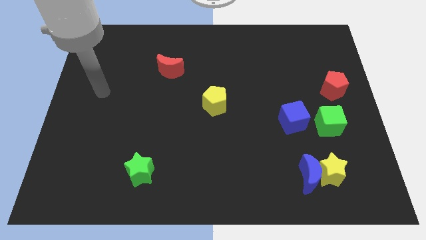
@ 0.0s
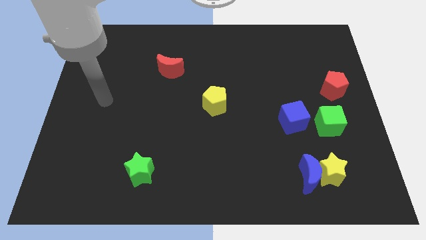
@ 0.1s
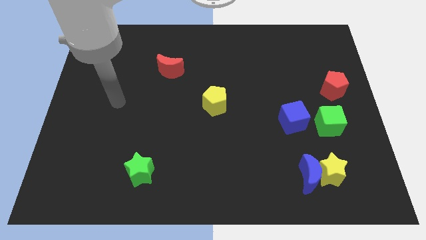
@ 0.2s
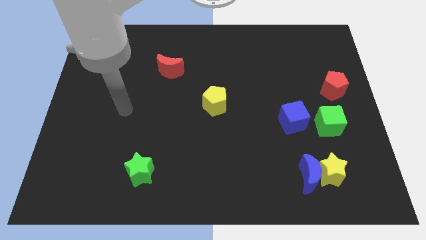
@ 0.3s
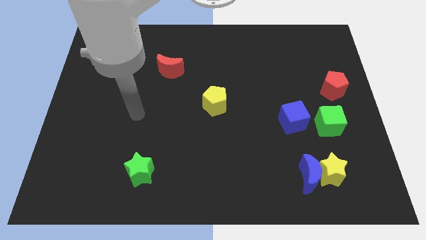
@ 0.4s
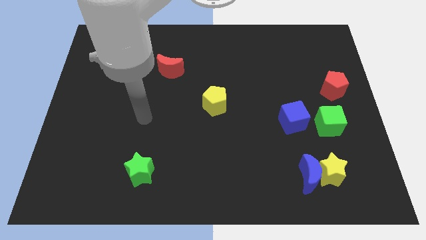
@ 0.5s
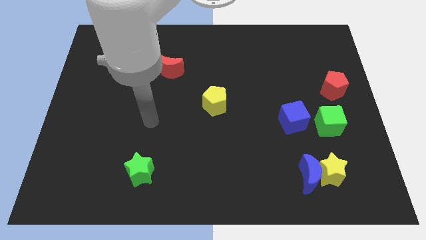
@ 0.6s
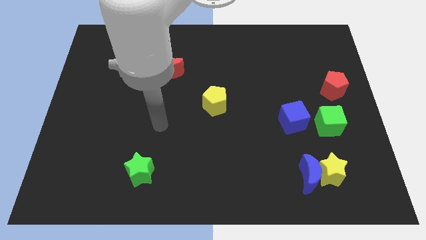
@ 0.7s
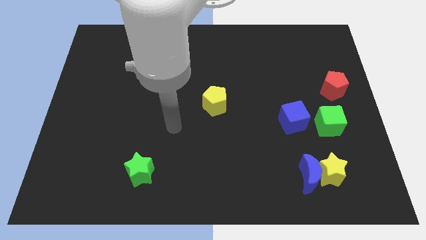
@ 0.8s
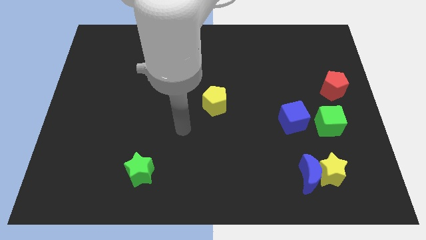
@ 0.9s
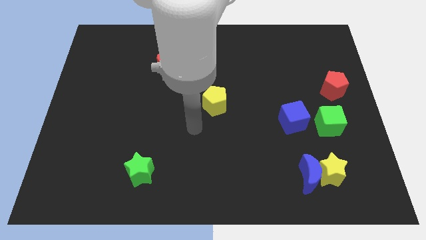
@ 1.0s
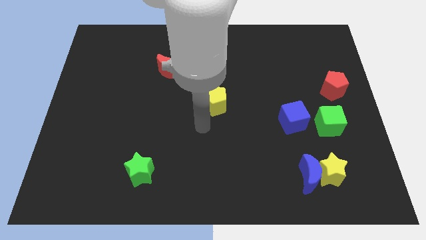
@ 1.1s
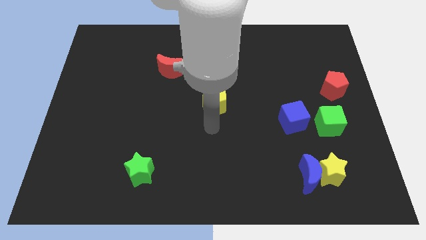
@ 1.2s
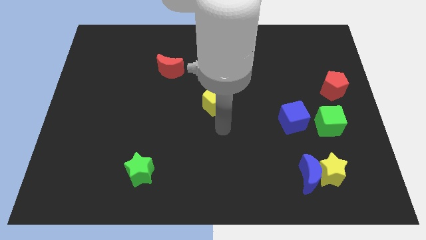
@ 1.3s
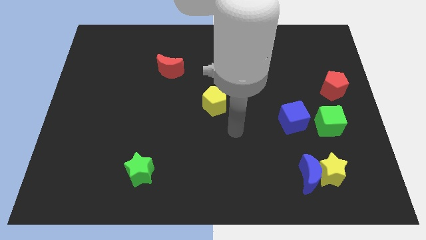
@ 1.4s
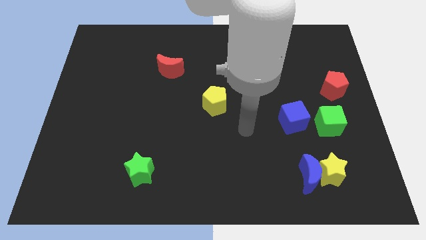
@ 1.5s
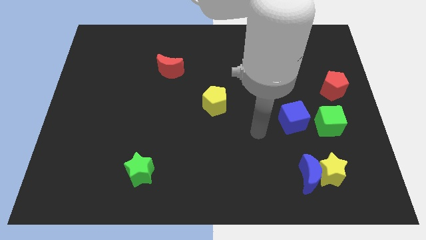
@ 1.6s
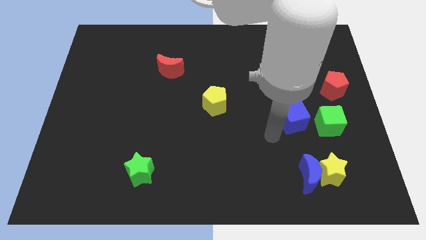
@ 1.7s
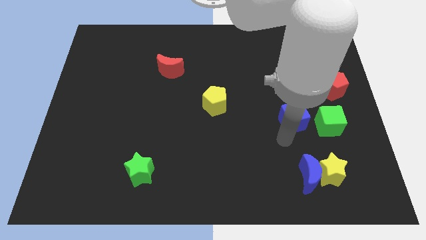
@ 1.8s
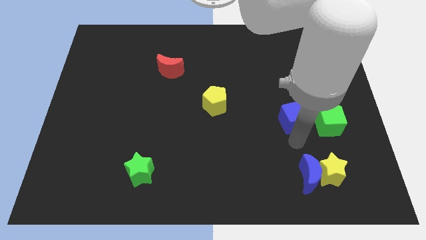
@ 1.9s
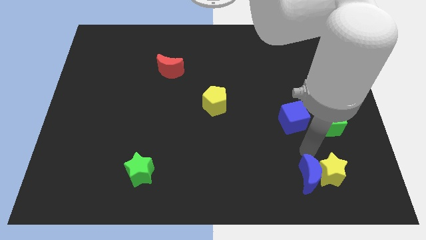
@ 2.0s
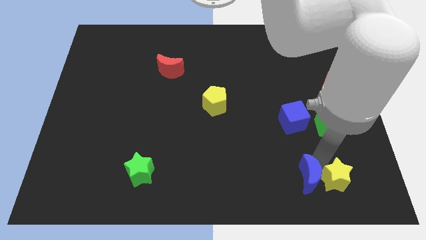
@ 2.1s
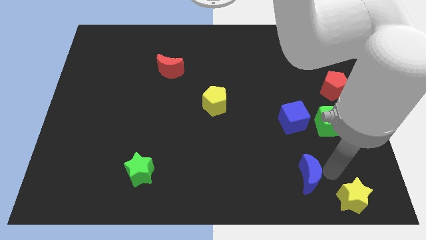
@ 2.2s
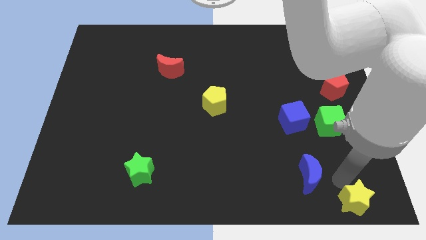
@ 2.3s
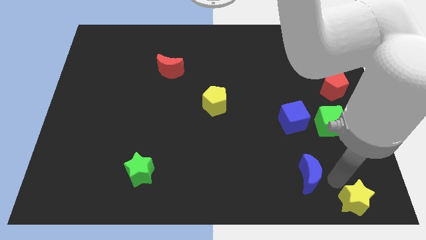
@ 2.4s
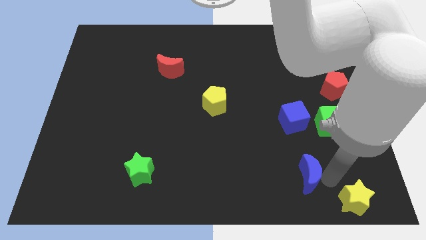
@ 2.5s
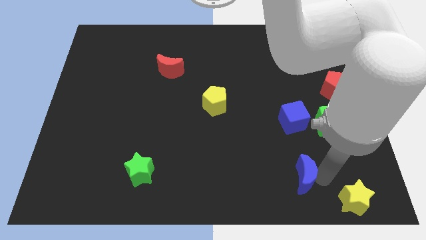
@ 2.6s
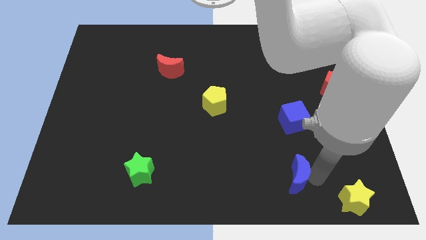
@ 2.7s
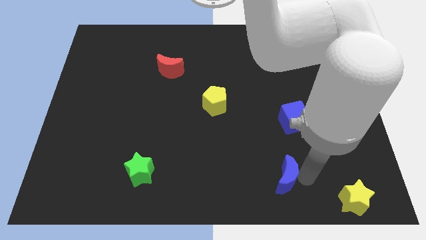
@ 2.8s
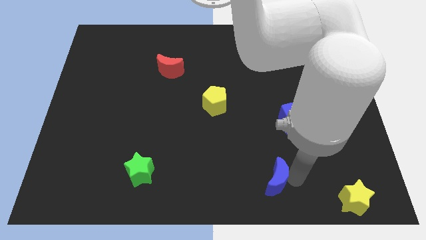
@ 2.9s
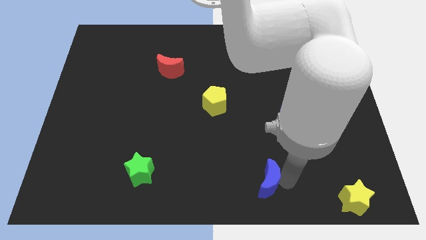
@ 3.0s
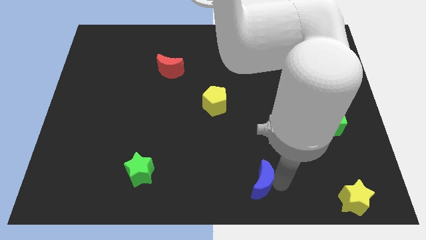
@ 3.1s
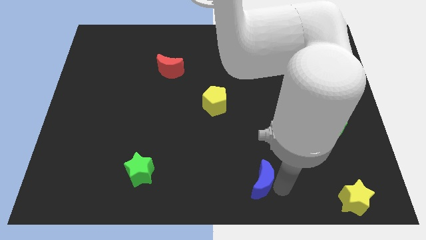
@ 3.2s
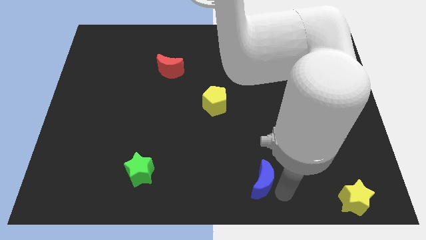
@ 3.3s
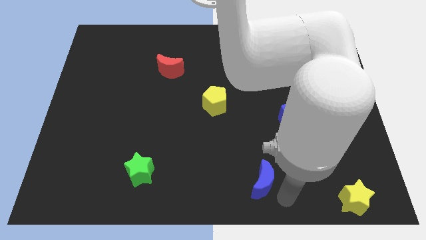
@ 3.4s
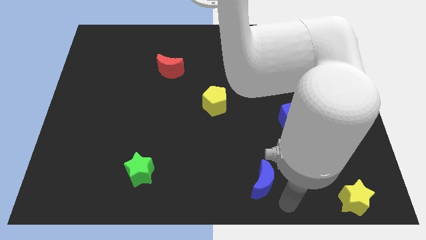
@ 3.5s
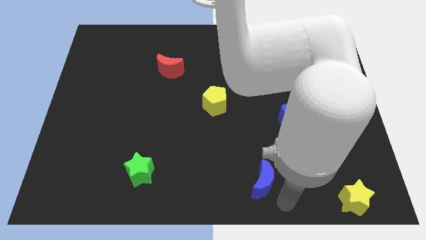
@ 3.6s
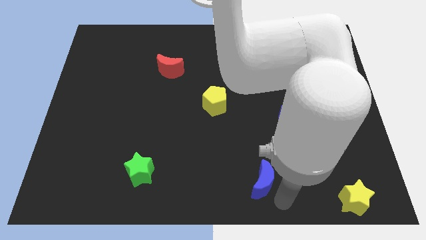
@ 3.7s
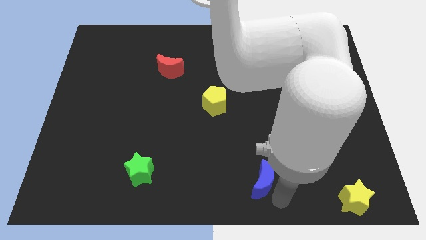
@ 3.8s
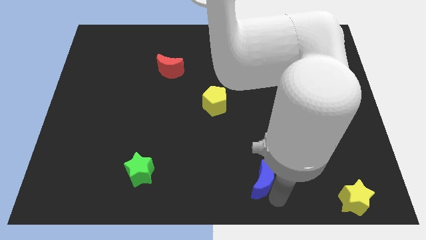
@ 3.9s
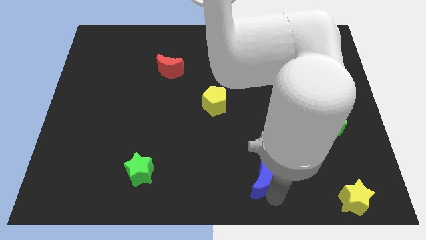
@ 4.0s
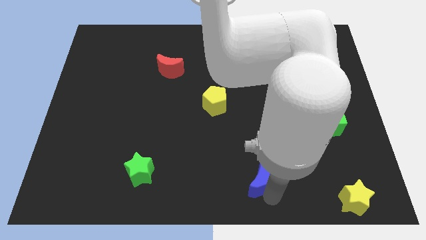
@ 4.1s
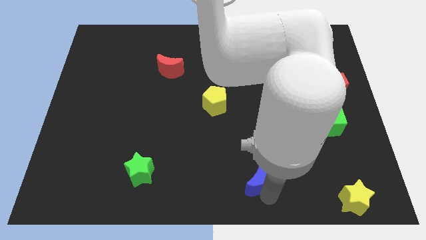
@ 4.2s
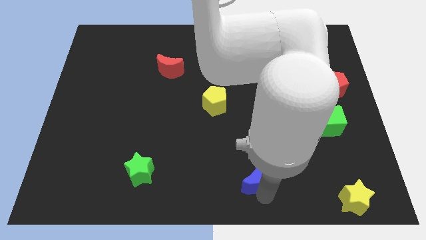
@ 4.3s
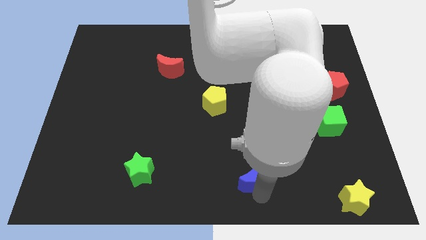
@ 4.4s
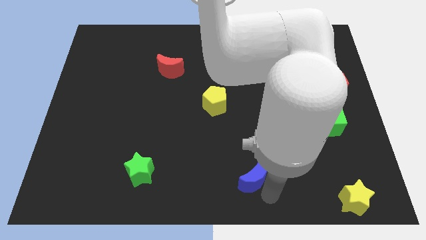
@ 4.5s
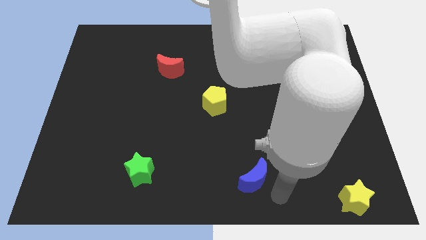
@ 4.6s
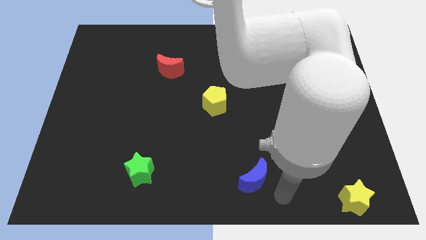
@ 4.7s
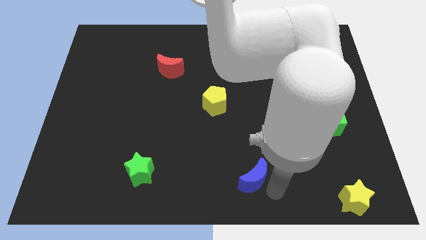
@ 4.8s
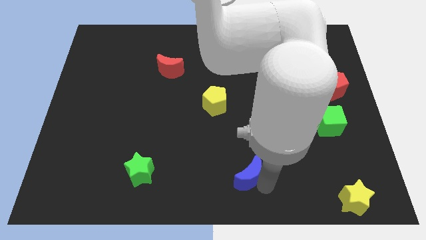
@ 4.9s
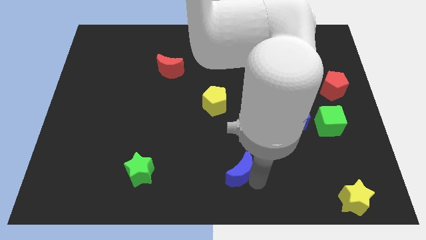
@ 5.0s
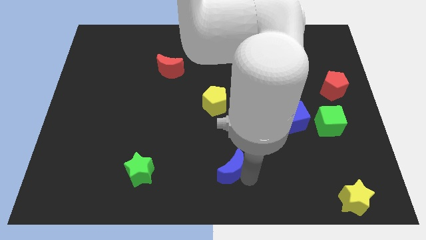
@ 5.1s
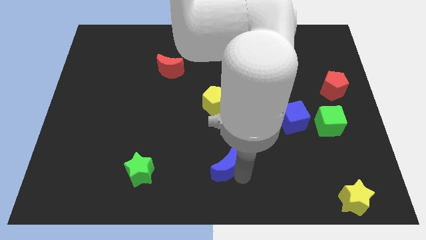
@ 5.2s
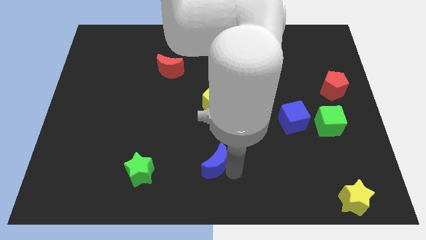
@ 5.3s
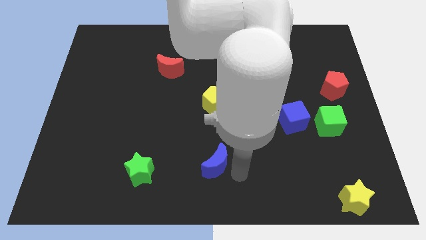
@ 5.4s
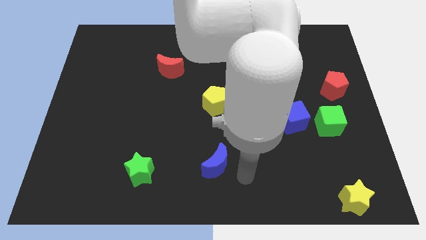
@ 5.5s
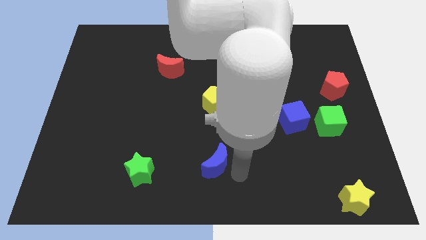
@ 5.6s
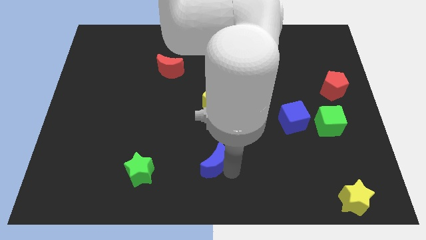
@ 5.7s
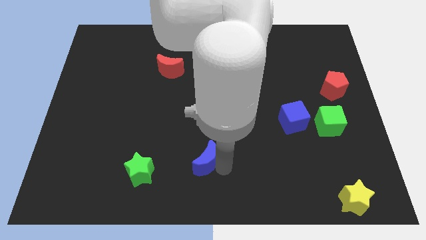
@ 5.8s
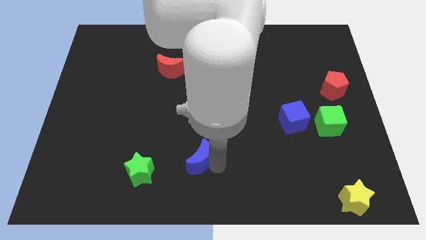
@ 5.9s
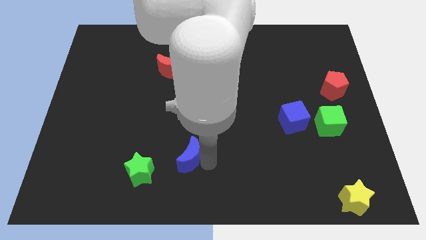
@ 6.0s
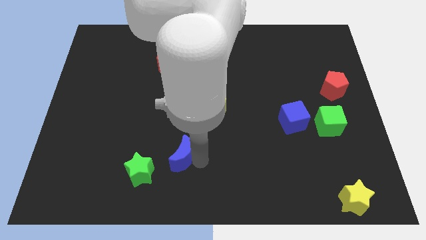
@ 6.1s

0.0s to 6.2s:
slide the blue moon diagonally up and to the right of the green star

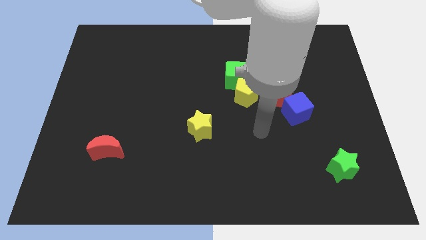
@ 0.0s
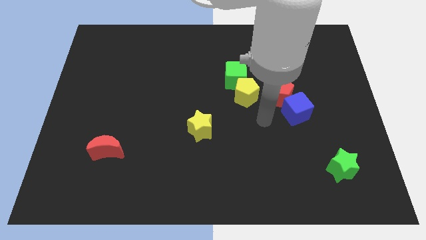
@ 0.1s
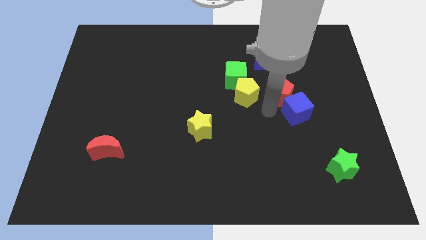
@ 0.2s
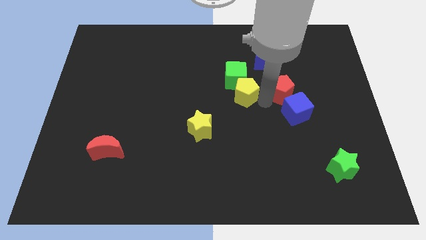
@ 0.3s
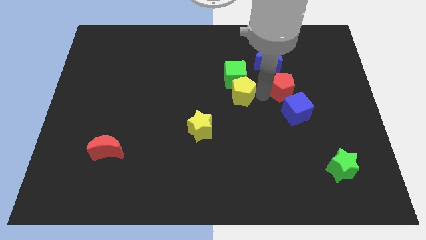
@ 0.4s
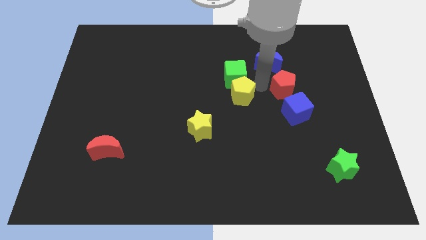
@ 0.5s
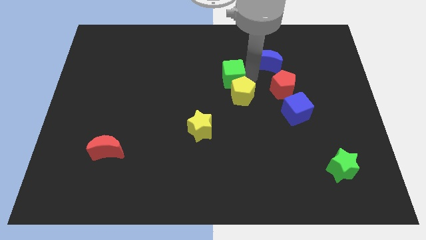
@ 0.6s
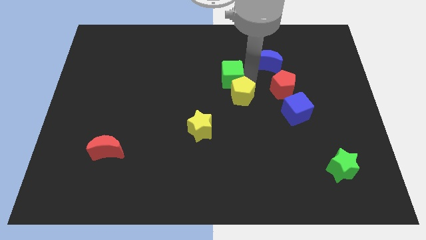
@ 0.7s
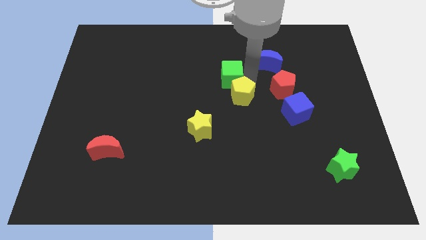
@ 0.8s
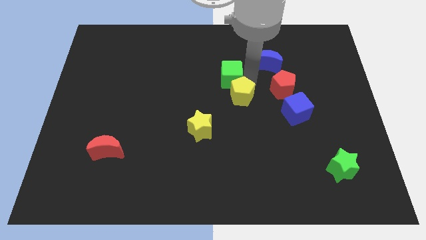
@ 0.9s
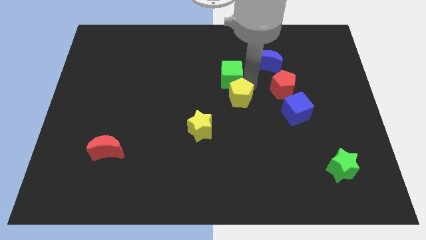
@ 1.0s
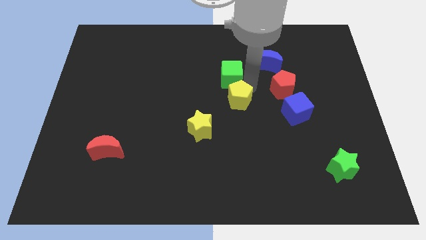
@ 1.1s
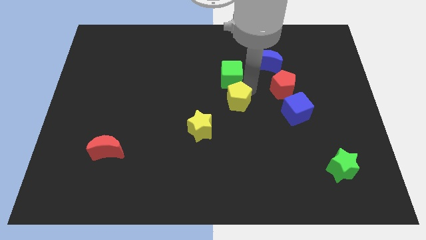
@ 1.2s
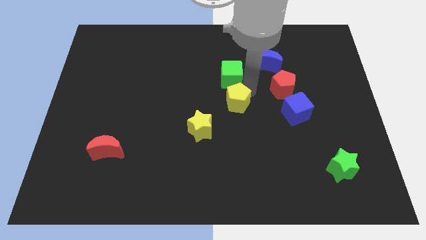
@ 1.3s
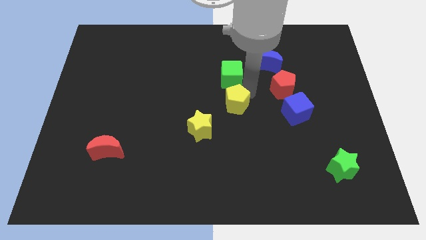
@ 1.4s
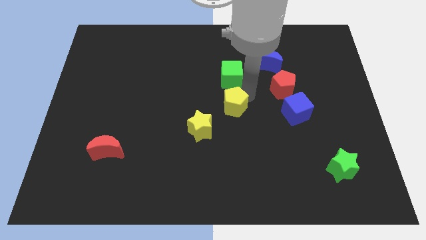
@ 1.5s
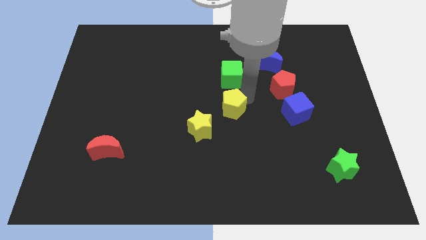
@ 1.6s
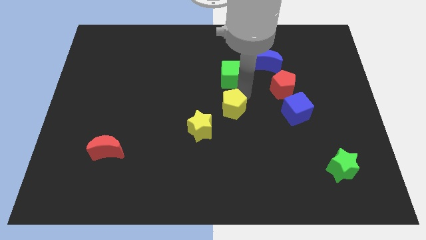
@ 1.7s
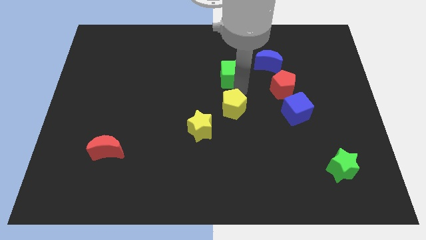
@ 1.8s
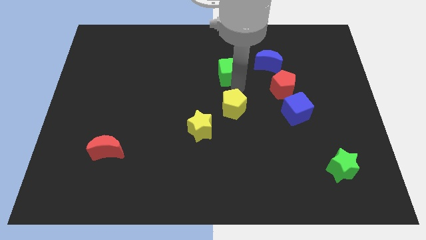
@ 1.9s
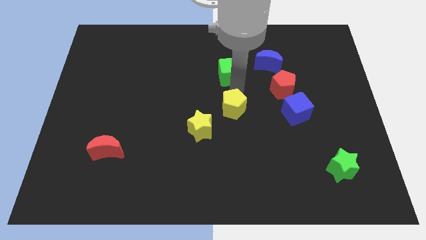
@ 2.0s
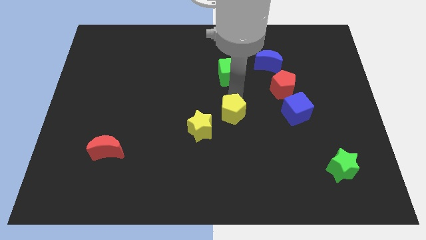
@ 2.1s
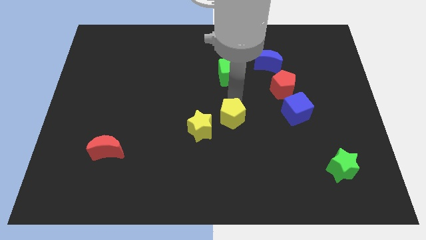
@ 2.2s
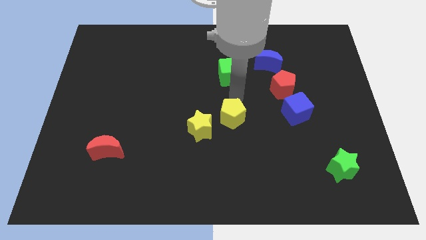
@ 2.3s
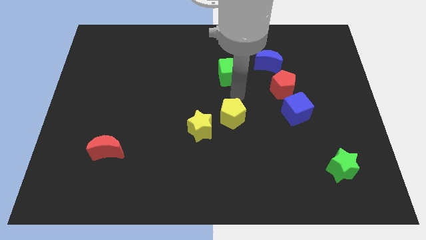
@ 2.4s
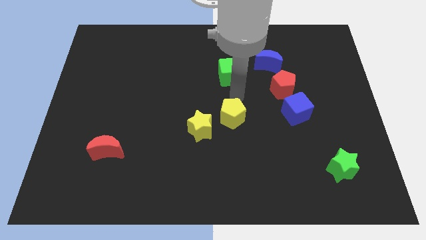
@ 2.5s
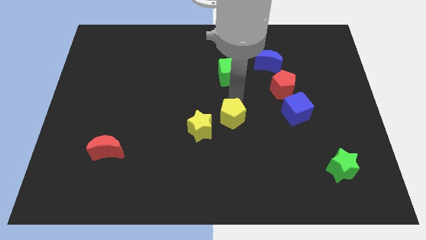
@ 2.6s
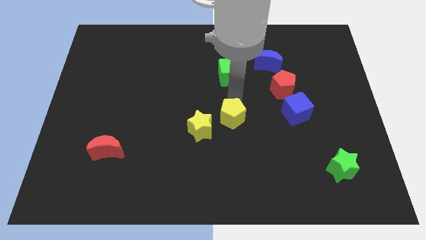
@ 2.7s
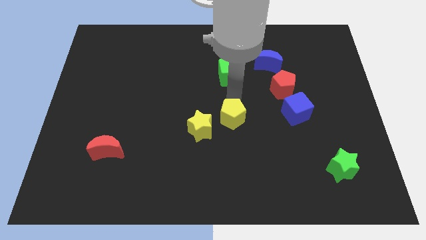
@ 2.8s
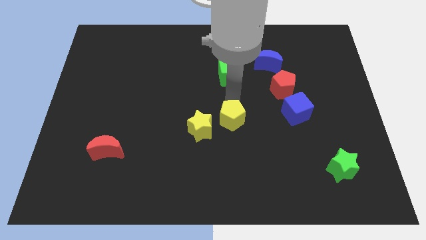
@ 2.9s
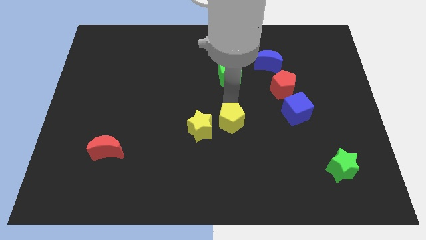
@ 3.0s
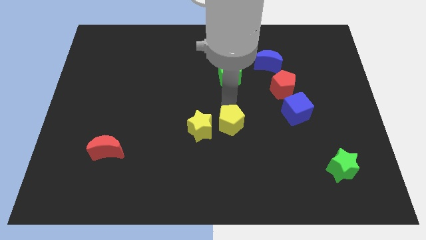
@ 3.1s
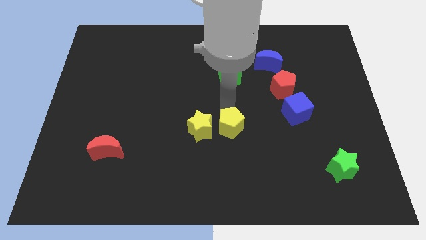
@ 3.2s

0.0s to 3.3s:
put the yellow pentagon to the bottom right side of the yellow star
